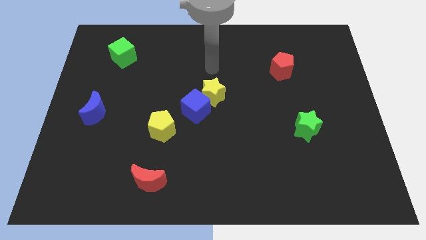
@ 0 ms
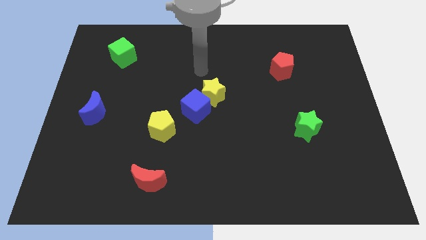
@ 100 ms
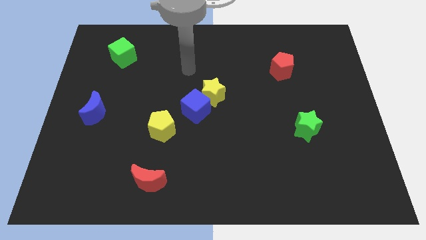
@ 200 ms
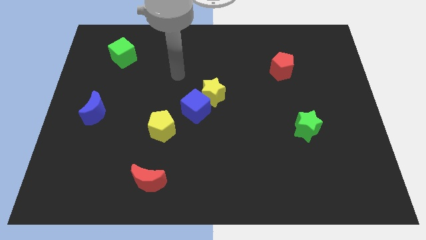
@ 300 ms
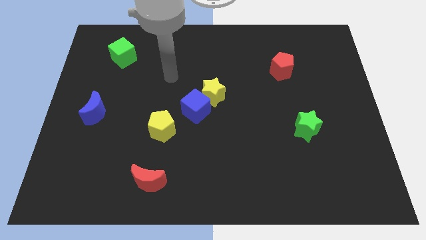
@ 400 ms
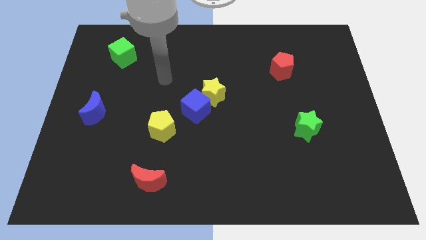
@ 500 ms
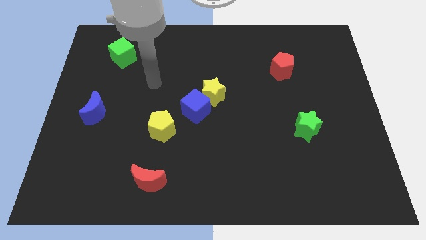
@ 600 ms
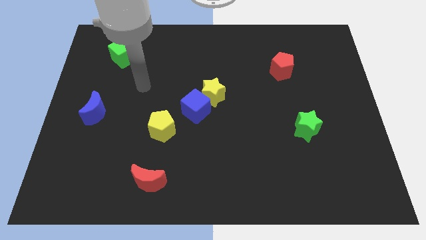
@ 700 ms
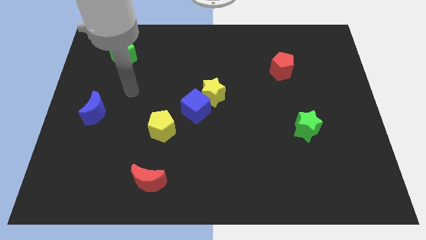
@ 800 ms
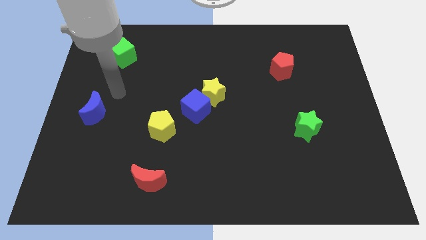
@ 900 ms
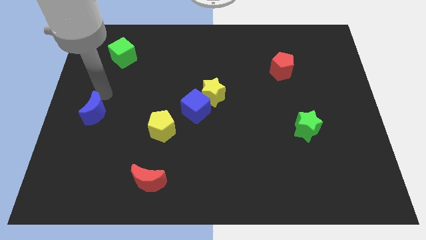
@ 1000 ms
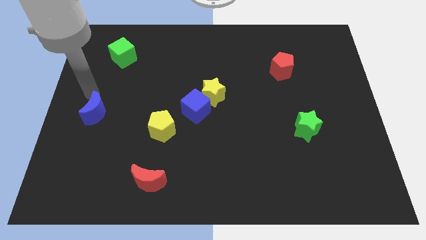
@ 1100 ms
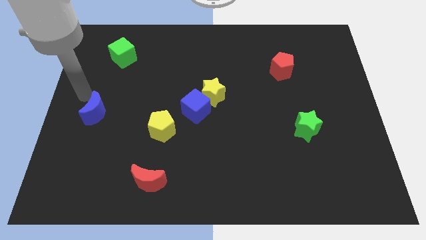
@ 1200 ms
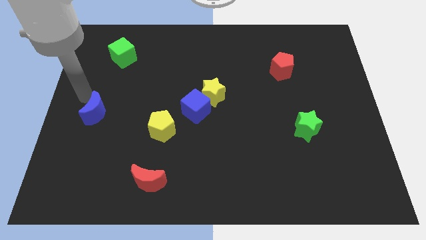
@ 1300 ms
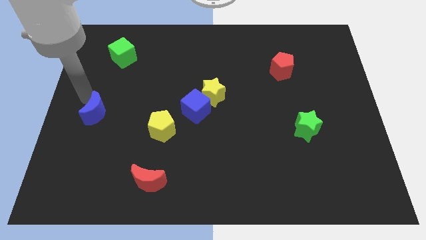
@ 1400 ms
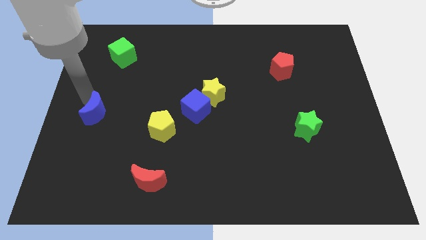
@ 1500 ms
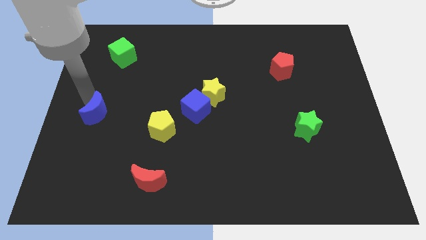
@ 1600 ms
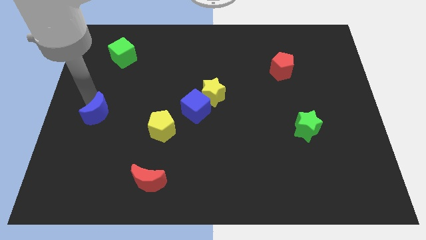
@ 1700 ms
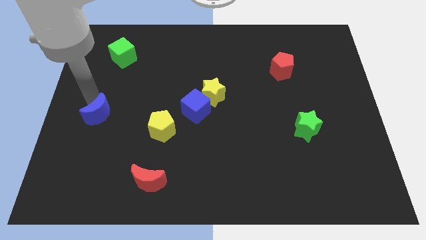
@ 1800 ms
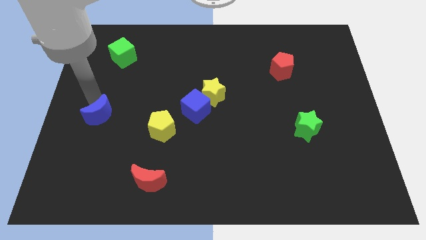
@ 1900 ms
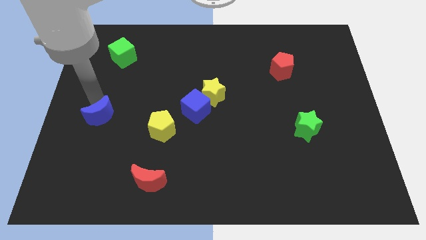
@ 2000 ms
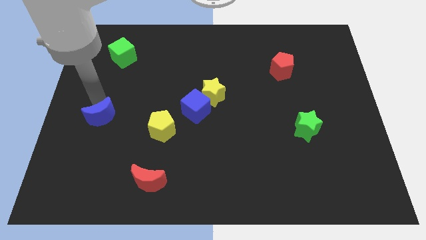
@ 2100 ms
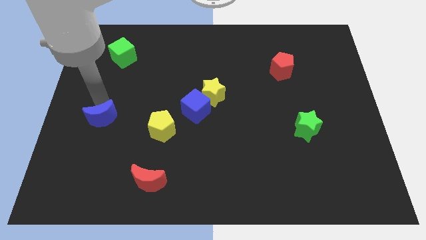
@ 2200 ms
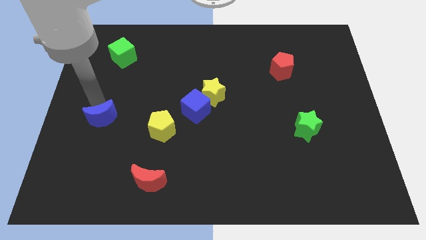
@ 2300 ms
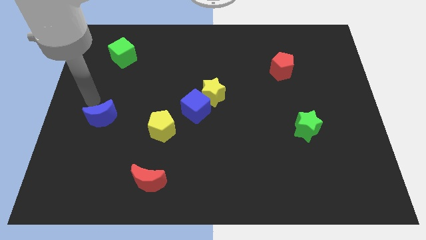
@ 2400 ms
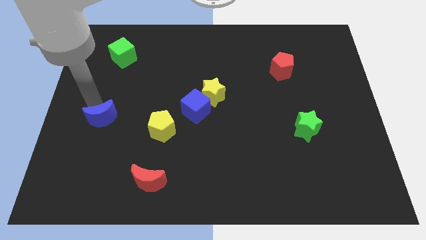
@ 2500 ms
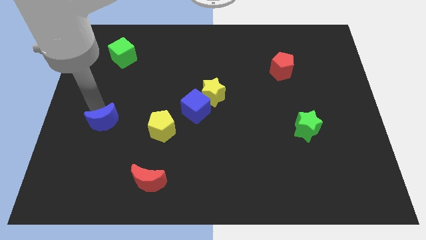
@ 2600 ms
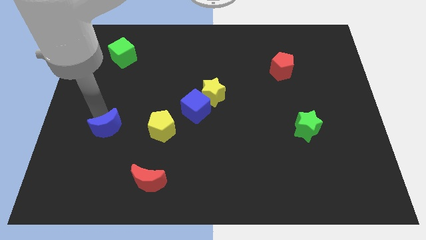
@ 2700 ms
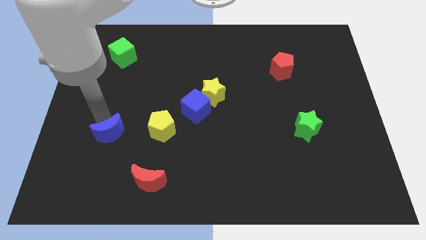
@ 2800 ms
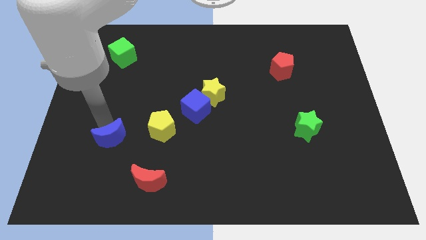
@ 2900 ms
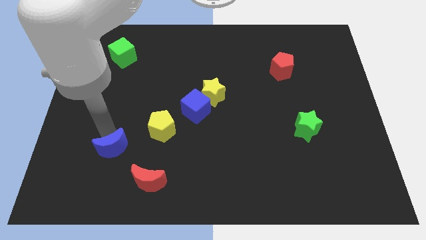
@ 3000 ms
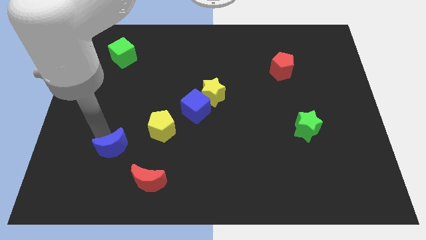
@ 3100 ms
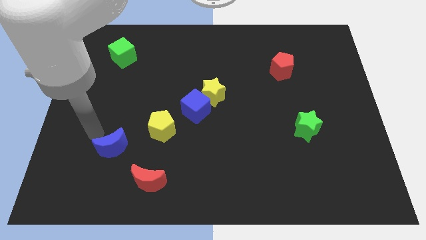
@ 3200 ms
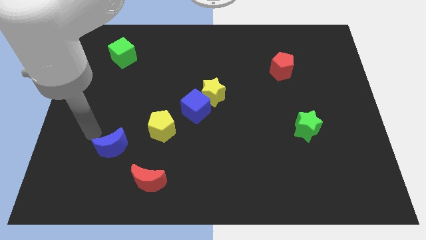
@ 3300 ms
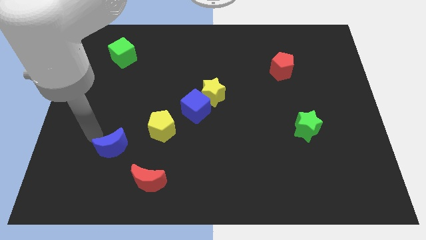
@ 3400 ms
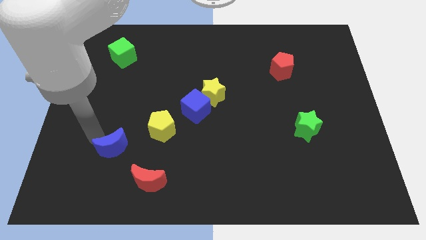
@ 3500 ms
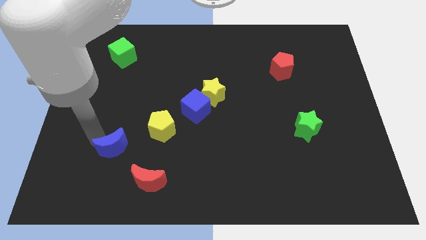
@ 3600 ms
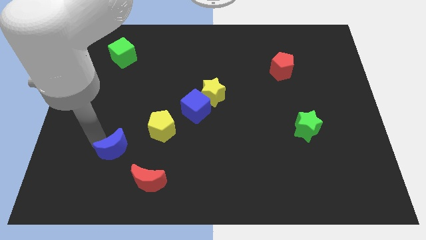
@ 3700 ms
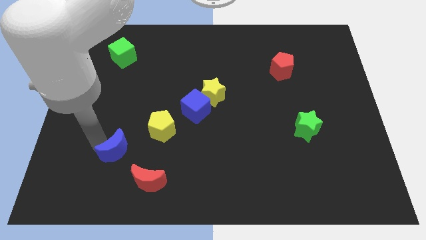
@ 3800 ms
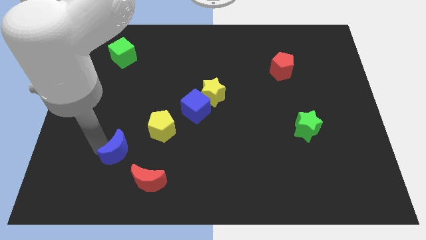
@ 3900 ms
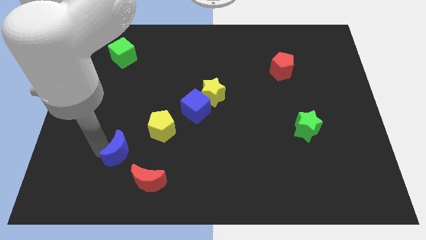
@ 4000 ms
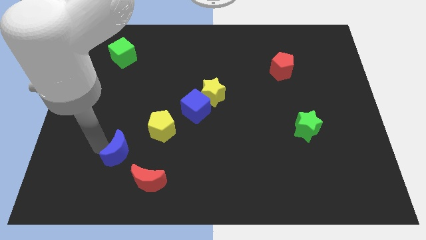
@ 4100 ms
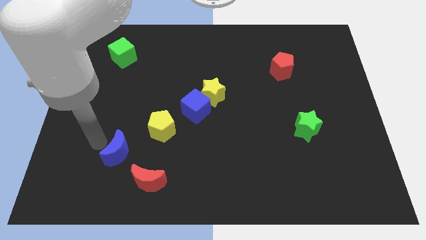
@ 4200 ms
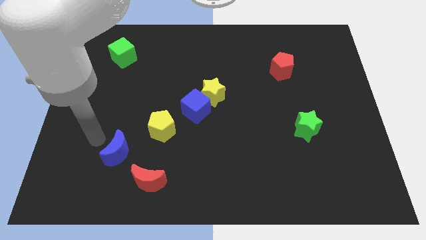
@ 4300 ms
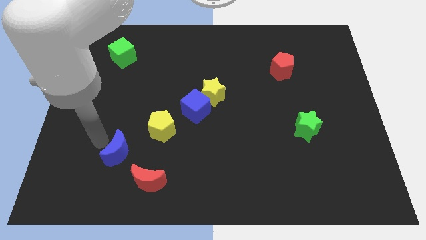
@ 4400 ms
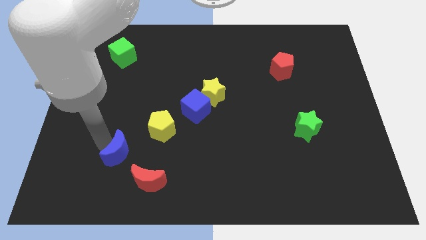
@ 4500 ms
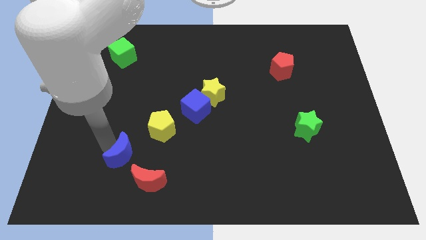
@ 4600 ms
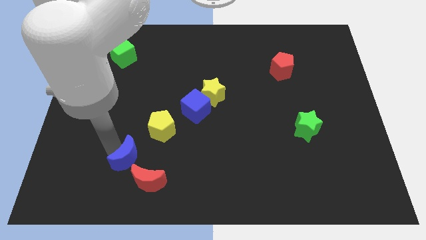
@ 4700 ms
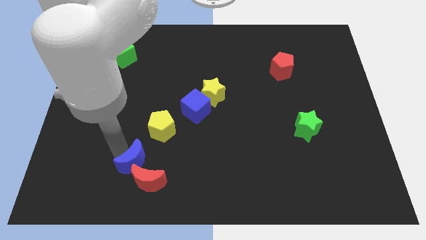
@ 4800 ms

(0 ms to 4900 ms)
slide the blue moon to the red moon

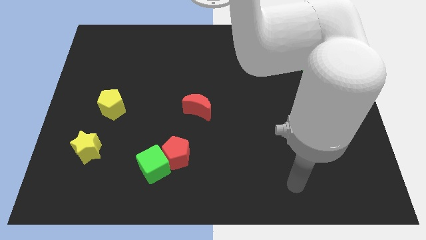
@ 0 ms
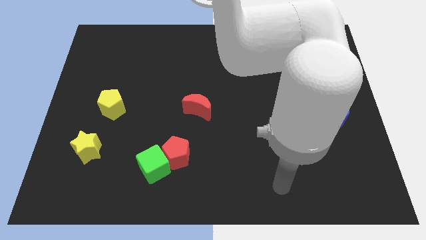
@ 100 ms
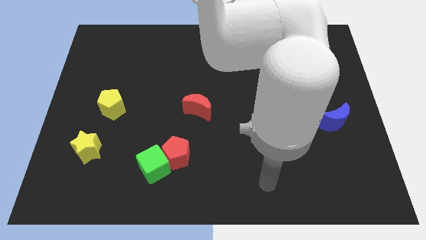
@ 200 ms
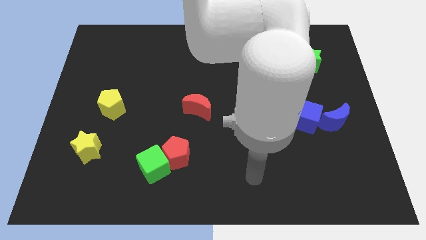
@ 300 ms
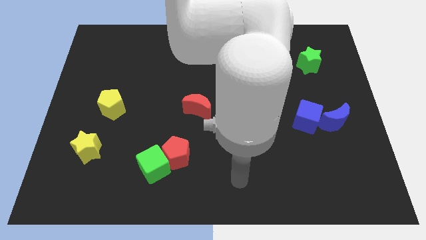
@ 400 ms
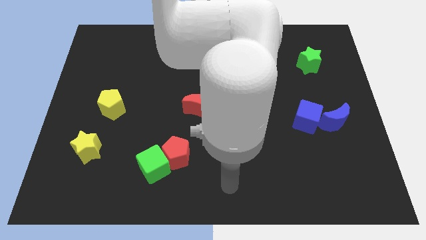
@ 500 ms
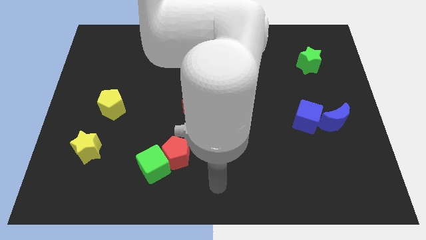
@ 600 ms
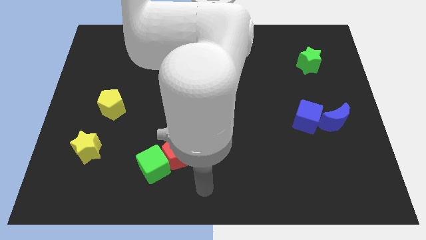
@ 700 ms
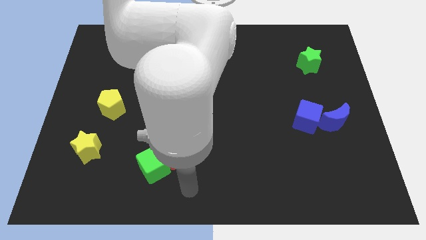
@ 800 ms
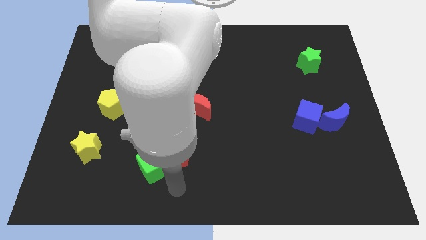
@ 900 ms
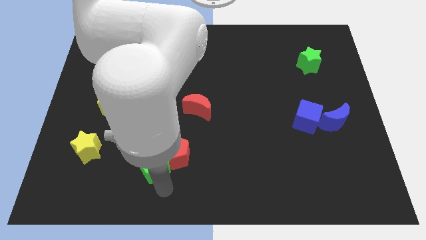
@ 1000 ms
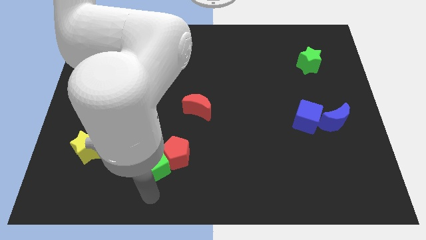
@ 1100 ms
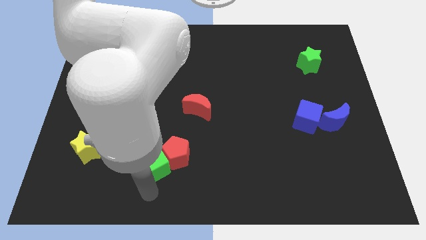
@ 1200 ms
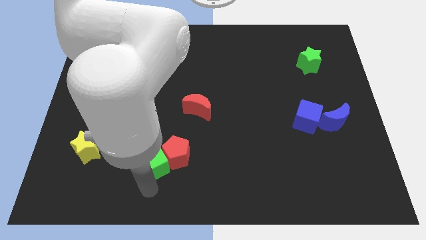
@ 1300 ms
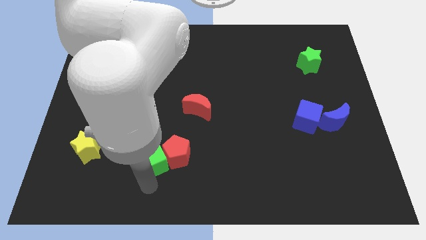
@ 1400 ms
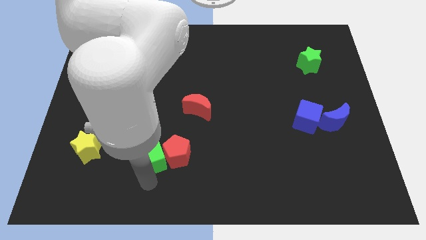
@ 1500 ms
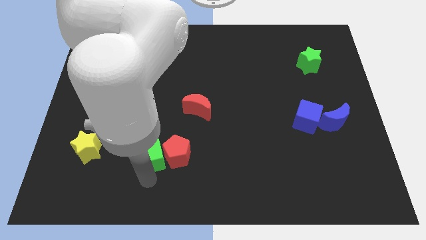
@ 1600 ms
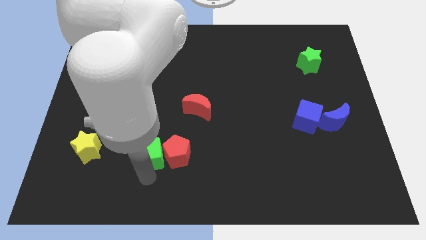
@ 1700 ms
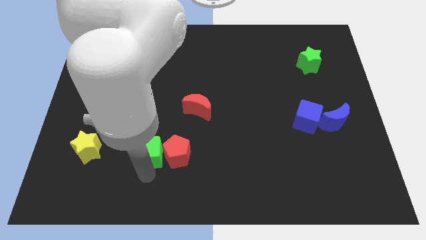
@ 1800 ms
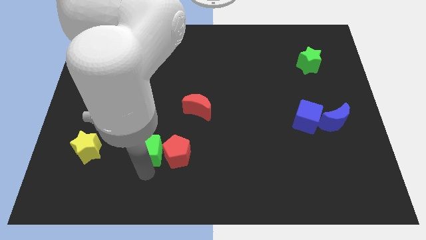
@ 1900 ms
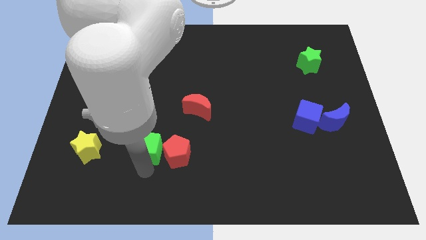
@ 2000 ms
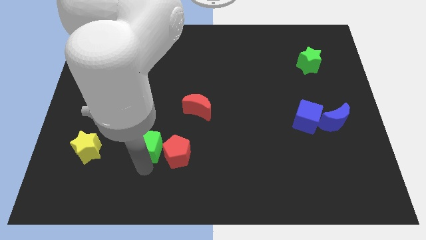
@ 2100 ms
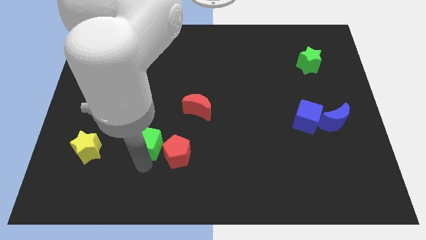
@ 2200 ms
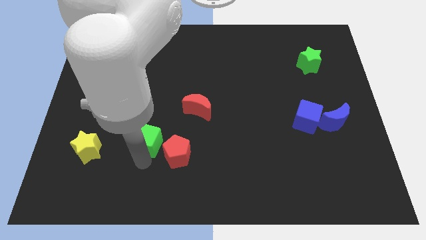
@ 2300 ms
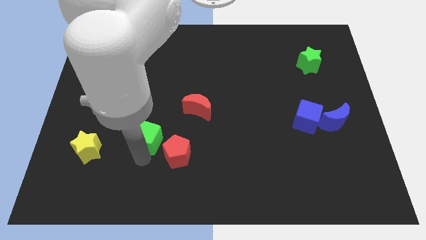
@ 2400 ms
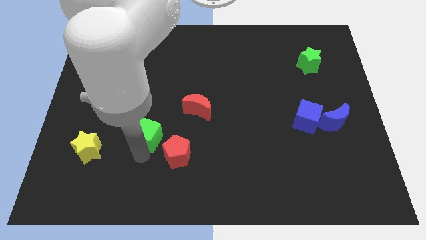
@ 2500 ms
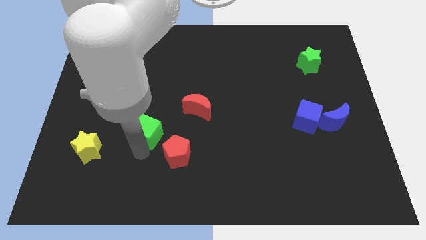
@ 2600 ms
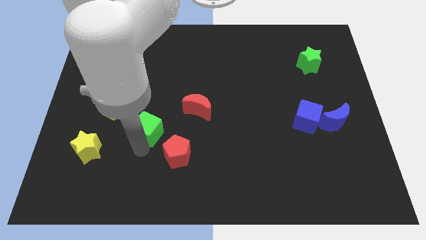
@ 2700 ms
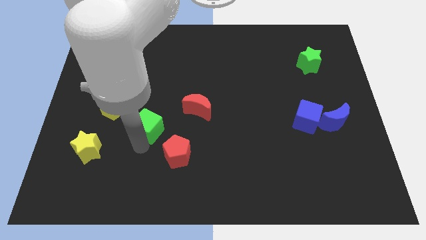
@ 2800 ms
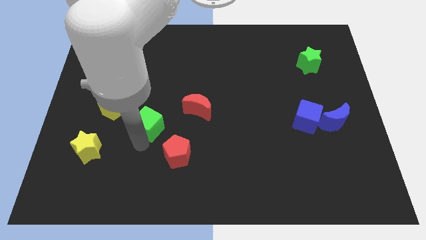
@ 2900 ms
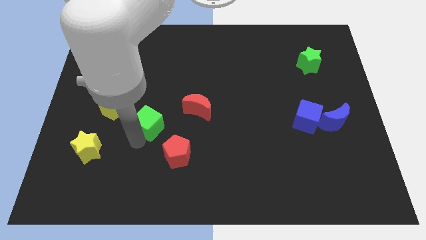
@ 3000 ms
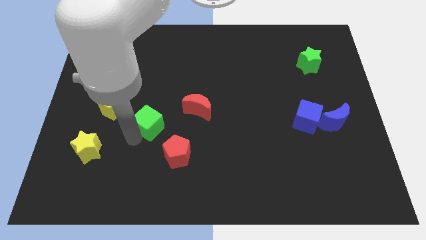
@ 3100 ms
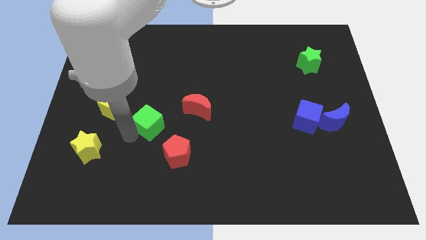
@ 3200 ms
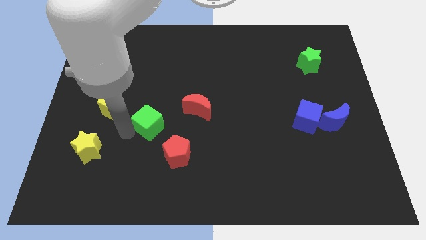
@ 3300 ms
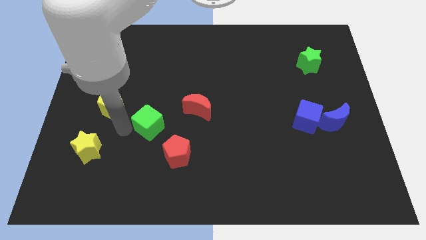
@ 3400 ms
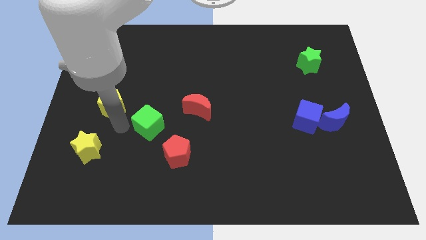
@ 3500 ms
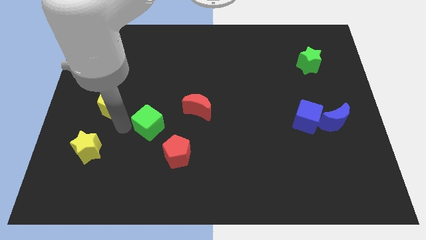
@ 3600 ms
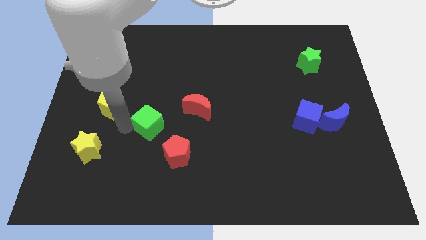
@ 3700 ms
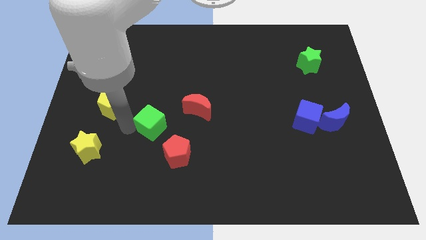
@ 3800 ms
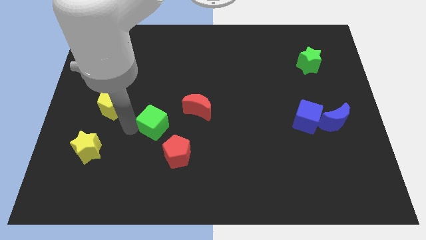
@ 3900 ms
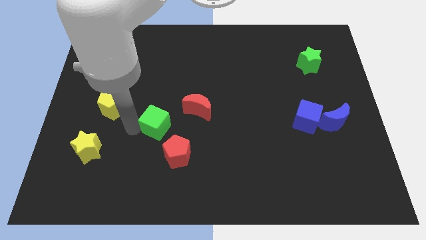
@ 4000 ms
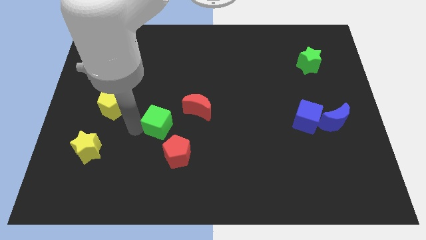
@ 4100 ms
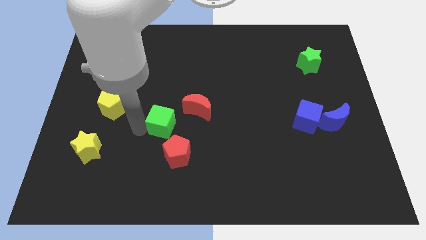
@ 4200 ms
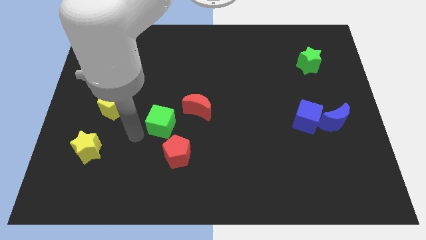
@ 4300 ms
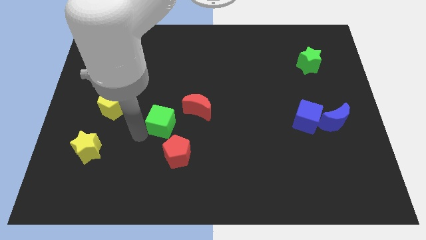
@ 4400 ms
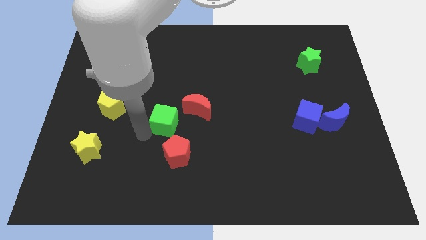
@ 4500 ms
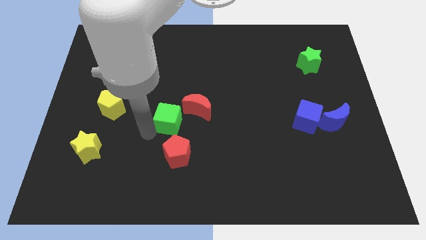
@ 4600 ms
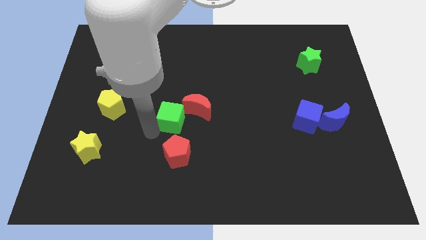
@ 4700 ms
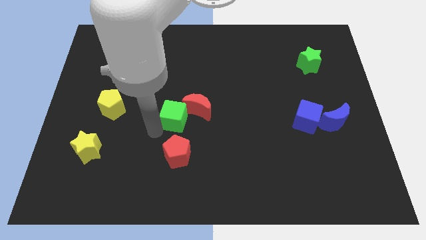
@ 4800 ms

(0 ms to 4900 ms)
slide the green cube towards the red moon
